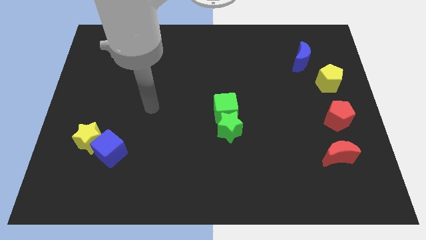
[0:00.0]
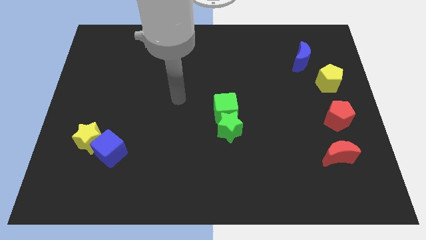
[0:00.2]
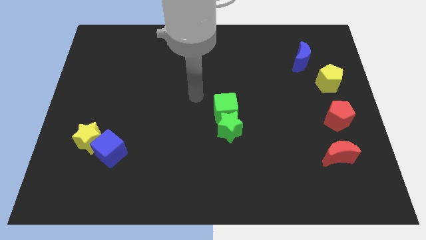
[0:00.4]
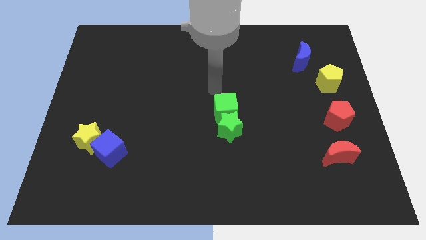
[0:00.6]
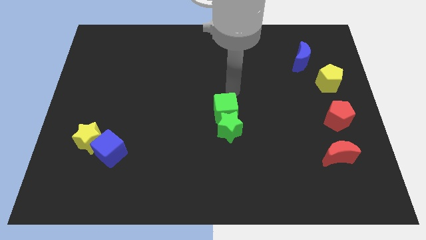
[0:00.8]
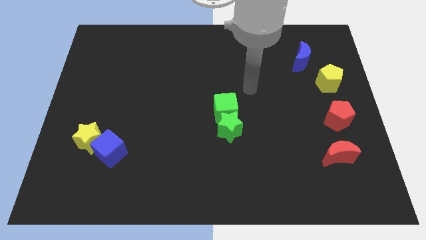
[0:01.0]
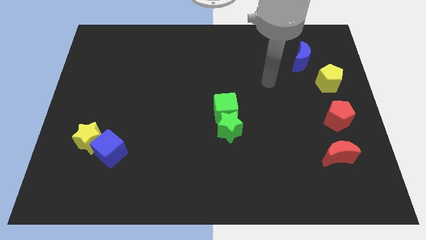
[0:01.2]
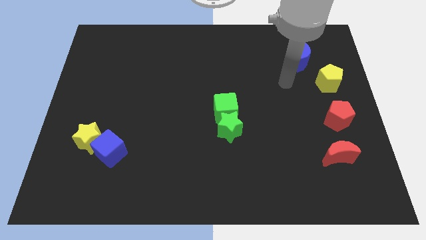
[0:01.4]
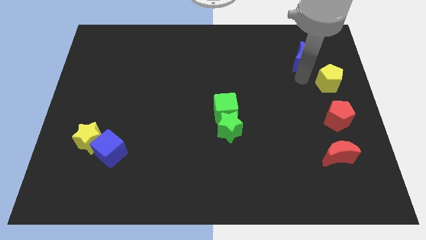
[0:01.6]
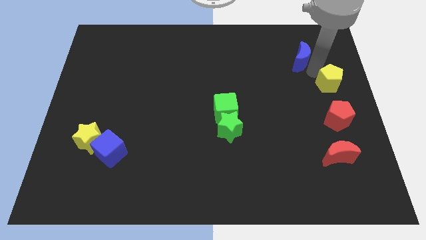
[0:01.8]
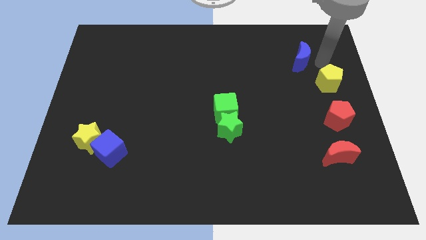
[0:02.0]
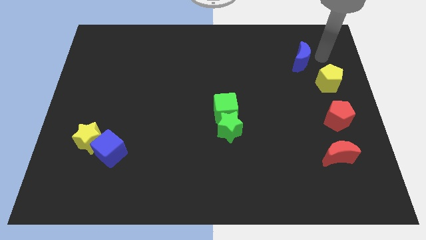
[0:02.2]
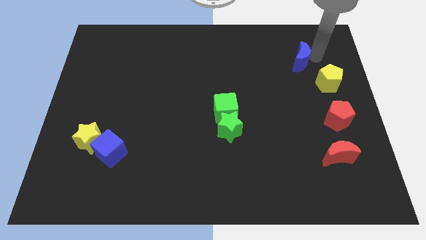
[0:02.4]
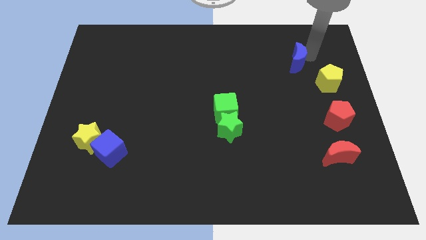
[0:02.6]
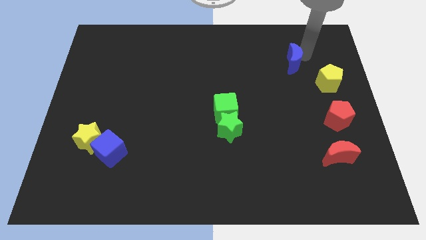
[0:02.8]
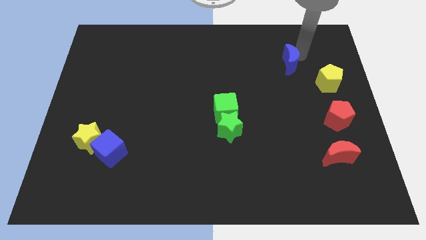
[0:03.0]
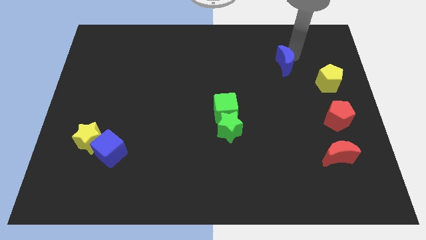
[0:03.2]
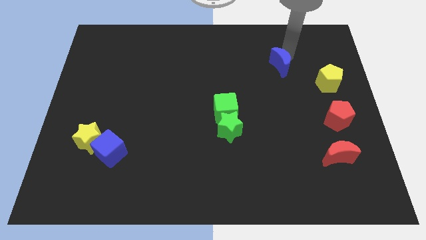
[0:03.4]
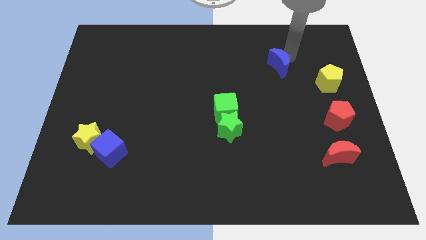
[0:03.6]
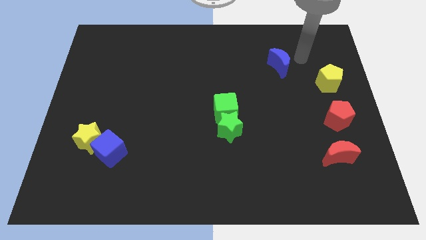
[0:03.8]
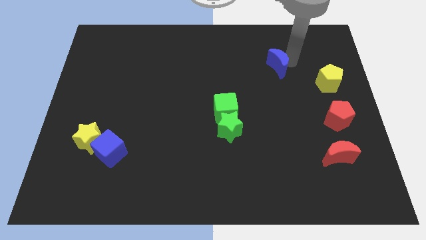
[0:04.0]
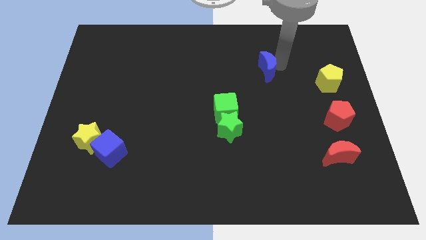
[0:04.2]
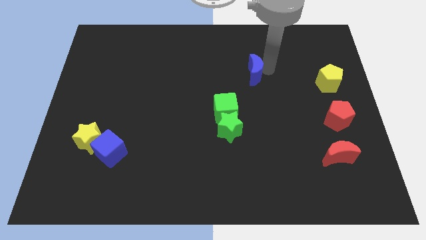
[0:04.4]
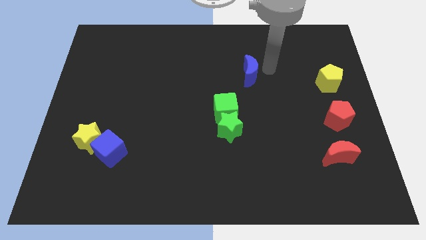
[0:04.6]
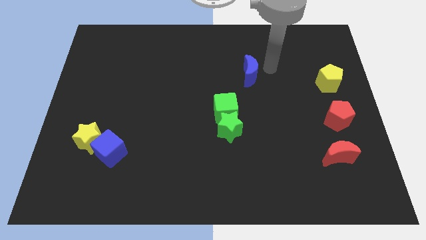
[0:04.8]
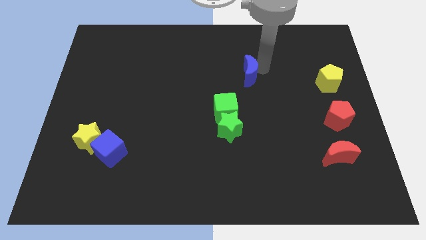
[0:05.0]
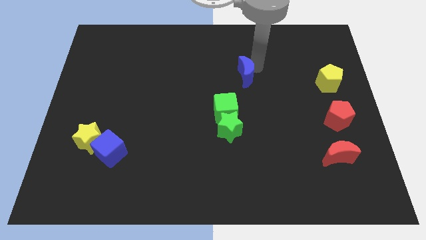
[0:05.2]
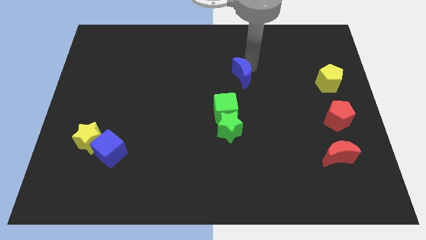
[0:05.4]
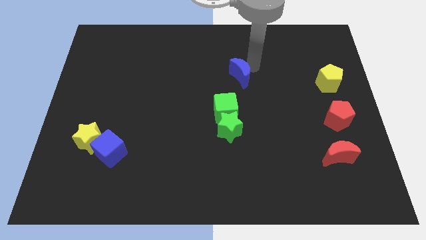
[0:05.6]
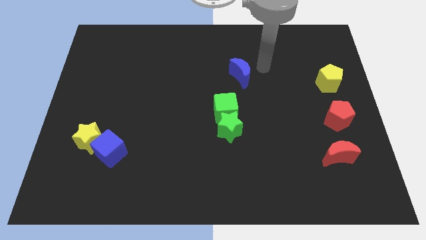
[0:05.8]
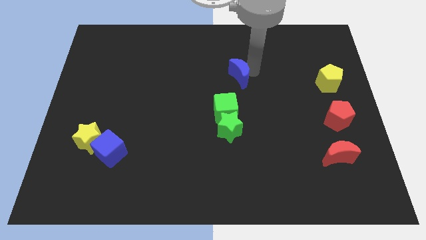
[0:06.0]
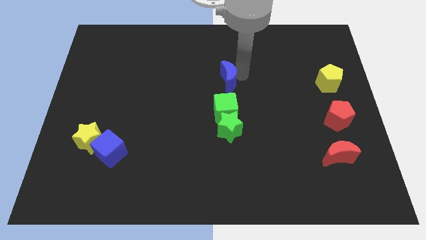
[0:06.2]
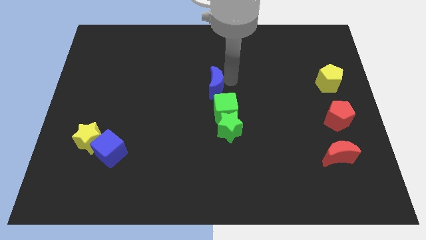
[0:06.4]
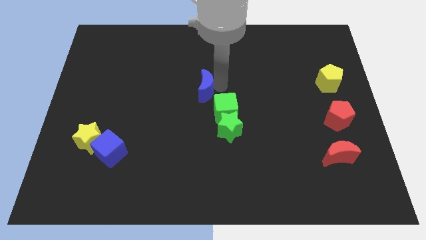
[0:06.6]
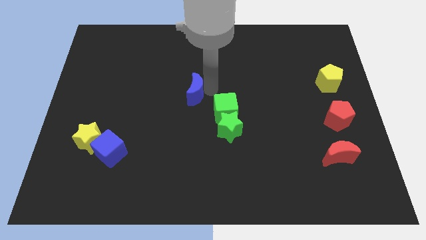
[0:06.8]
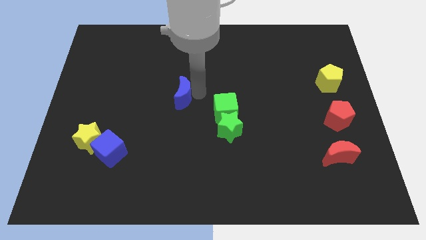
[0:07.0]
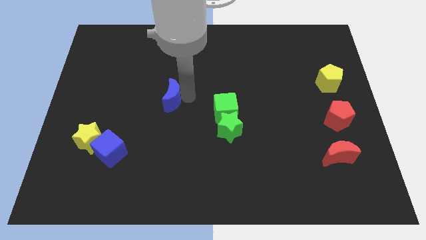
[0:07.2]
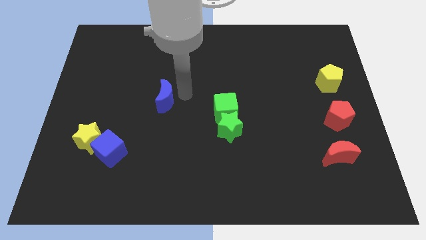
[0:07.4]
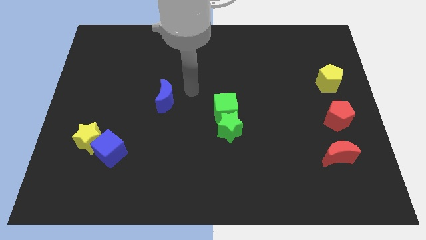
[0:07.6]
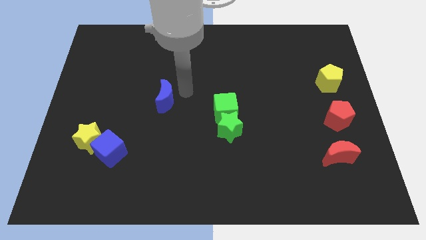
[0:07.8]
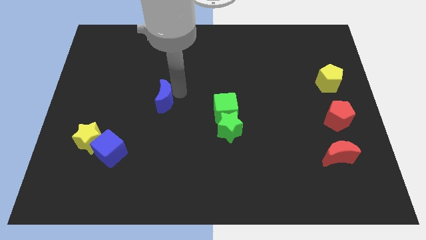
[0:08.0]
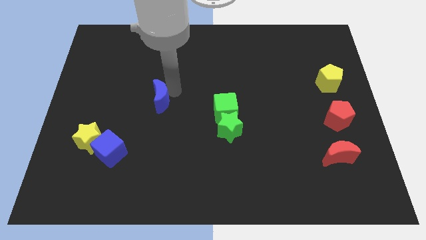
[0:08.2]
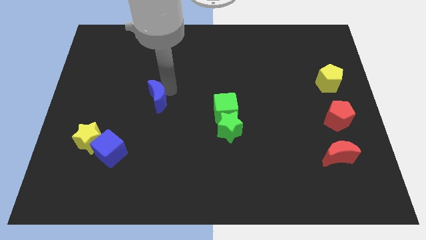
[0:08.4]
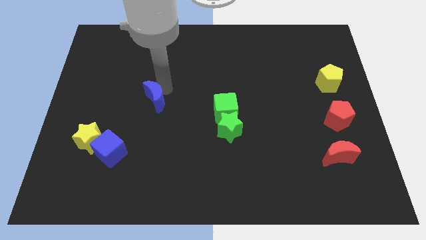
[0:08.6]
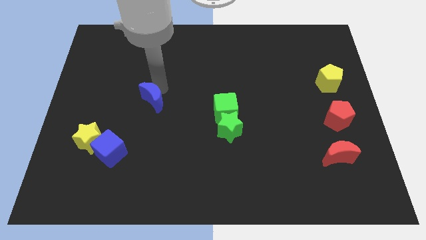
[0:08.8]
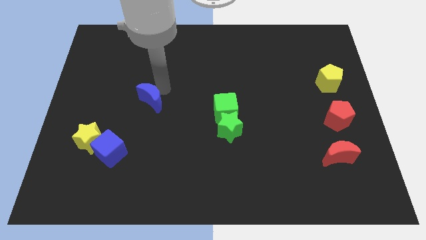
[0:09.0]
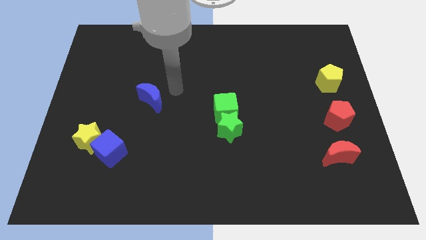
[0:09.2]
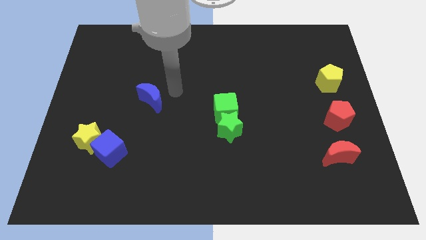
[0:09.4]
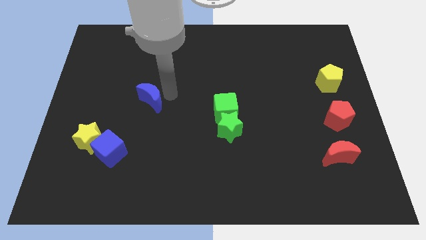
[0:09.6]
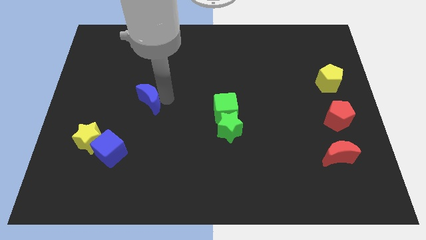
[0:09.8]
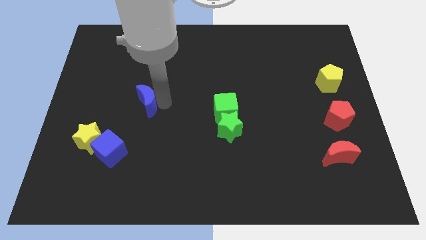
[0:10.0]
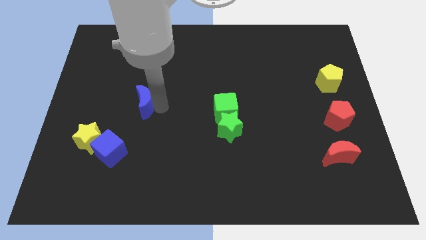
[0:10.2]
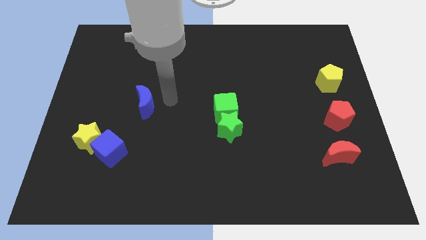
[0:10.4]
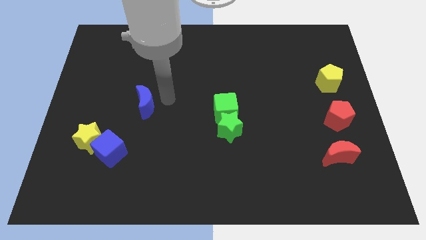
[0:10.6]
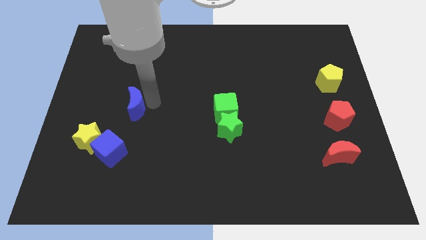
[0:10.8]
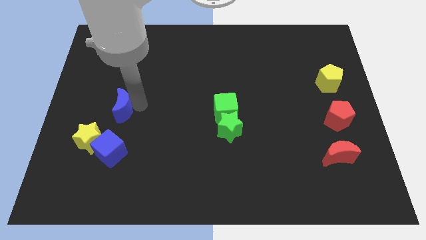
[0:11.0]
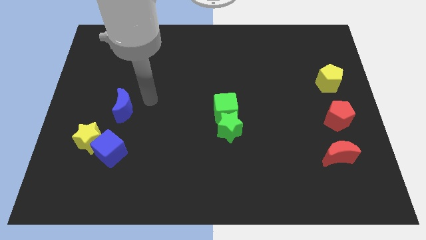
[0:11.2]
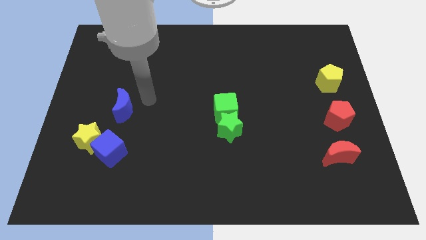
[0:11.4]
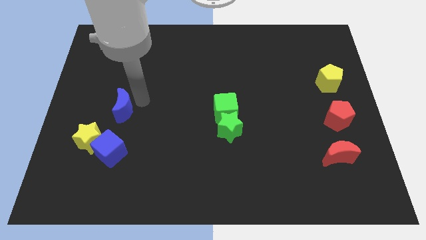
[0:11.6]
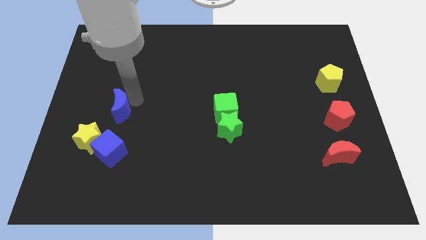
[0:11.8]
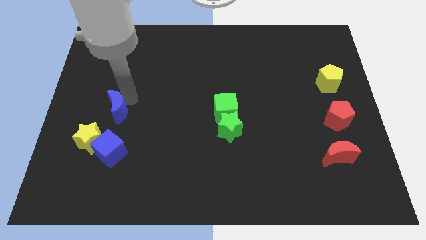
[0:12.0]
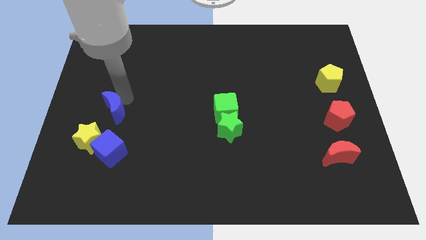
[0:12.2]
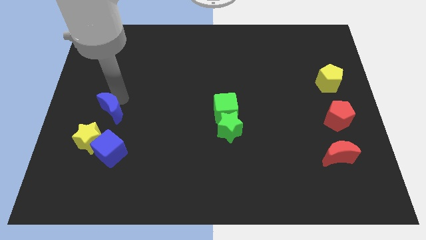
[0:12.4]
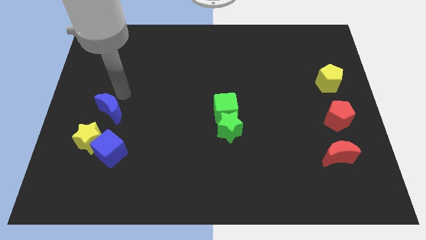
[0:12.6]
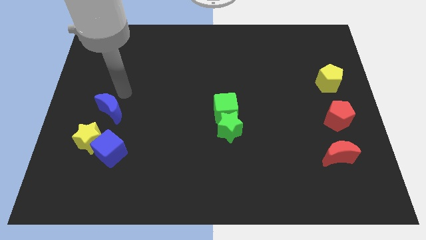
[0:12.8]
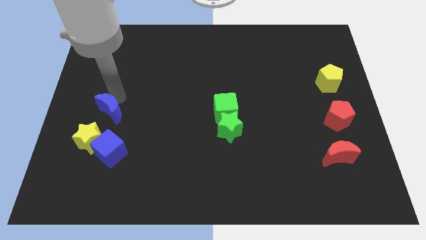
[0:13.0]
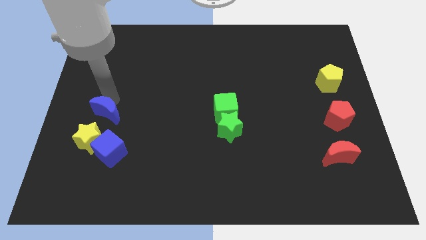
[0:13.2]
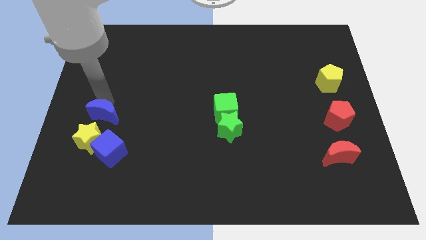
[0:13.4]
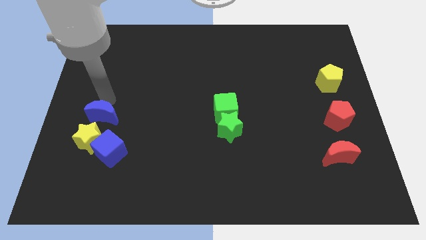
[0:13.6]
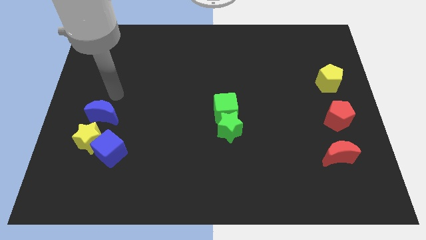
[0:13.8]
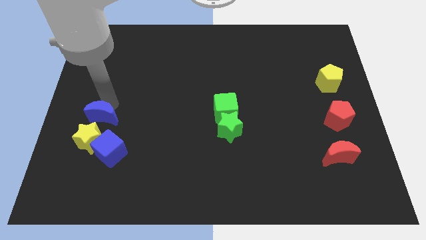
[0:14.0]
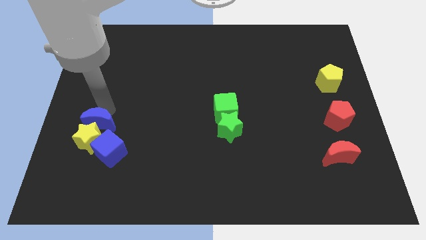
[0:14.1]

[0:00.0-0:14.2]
move the blue moon towards the yellow star
